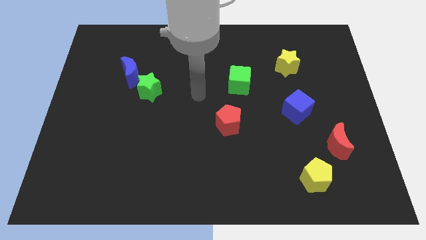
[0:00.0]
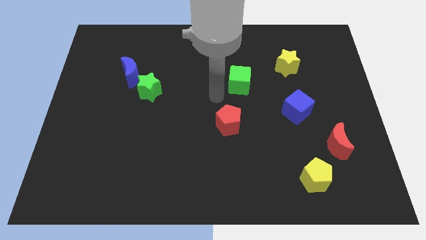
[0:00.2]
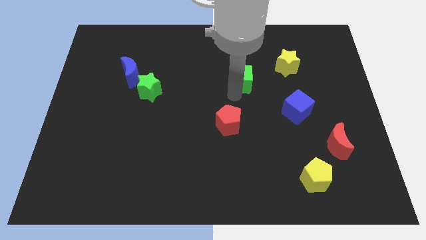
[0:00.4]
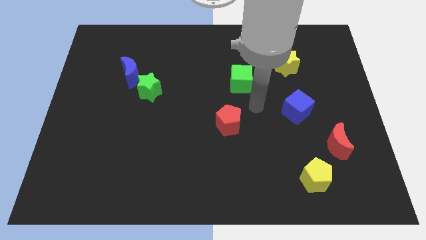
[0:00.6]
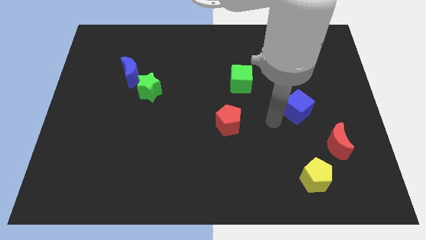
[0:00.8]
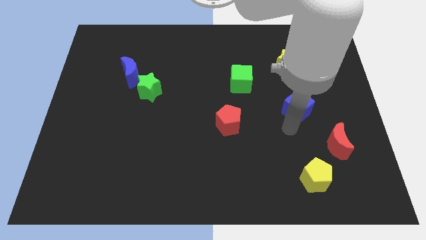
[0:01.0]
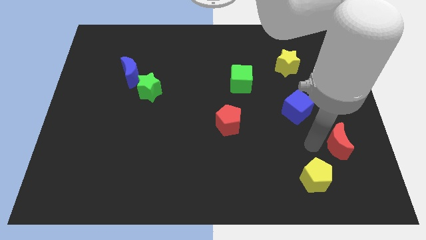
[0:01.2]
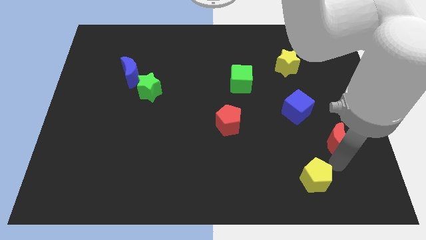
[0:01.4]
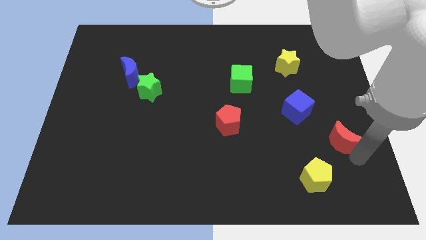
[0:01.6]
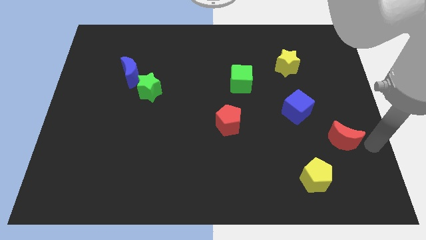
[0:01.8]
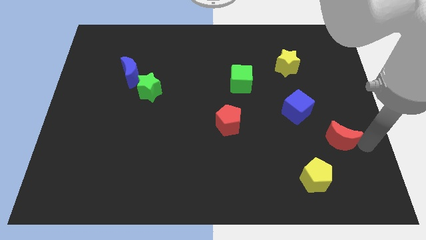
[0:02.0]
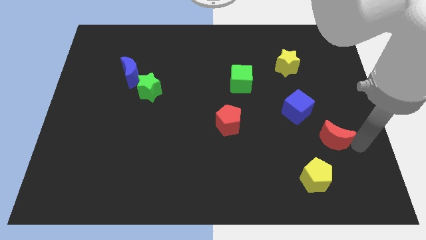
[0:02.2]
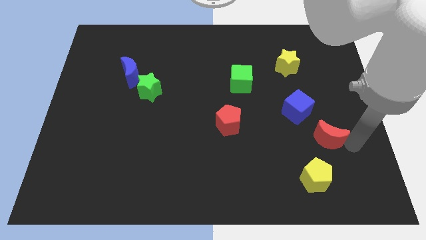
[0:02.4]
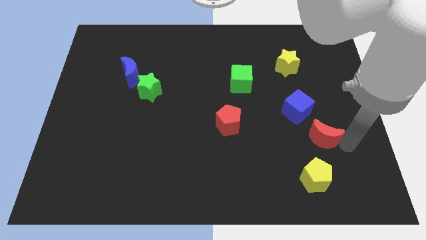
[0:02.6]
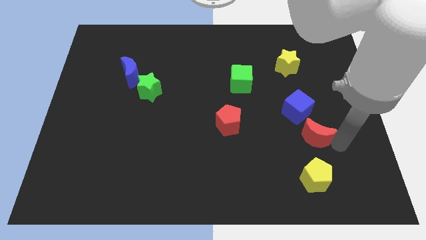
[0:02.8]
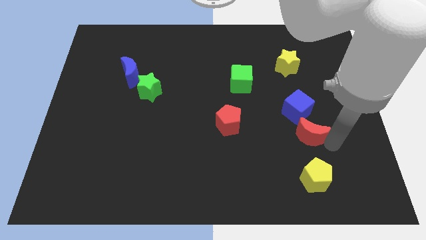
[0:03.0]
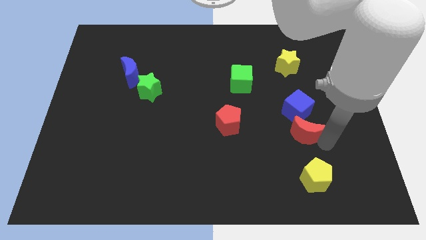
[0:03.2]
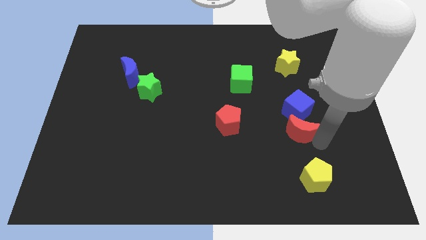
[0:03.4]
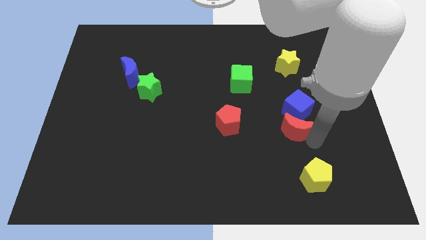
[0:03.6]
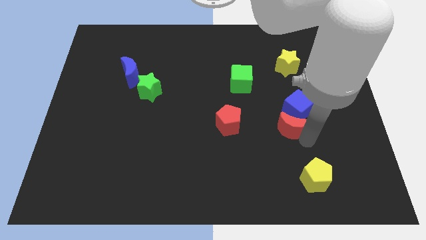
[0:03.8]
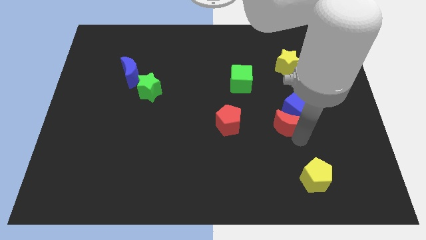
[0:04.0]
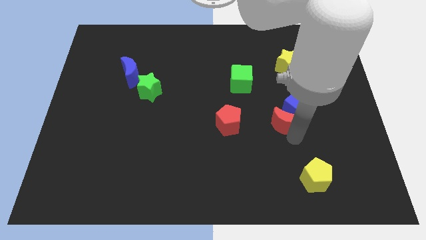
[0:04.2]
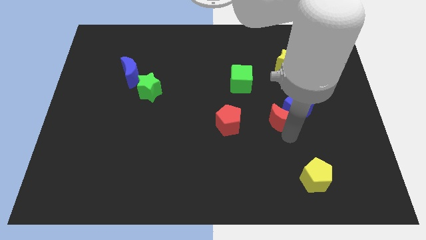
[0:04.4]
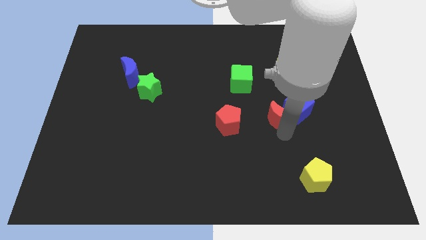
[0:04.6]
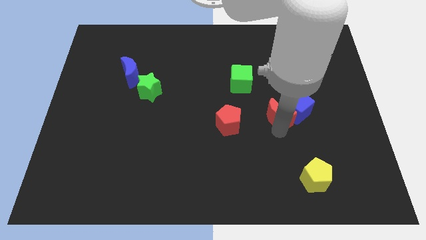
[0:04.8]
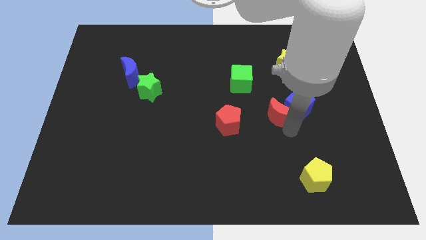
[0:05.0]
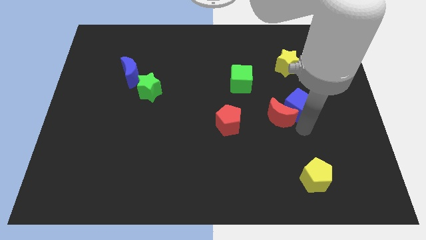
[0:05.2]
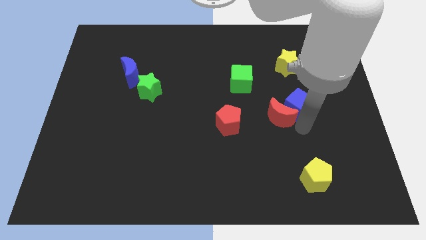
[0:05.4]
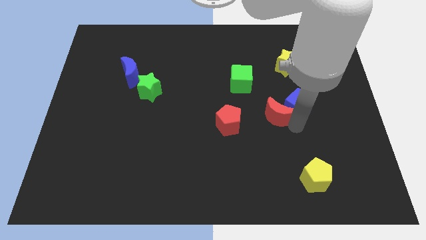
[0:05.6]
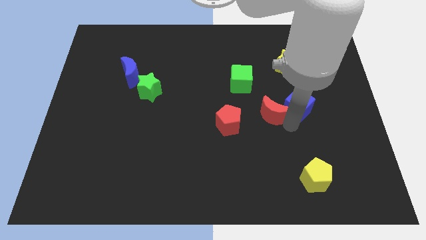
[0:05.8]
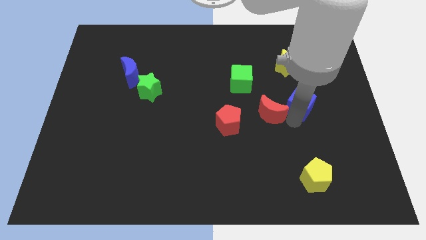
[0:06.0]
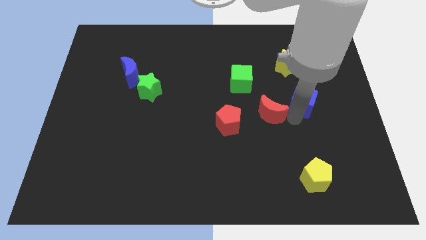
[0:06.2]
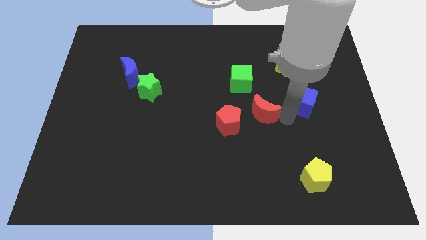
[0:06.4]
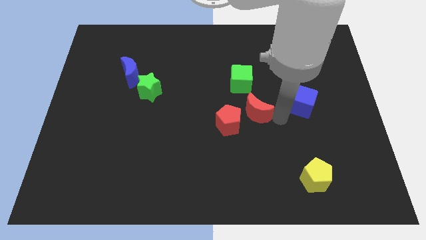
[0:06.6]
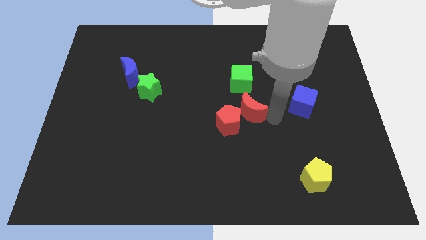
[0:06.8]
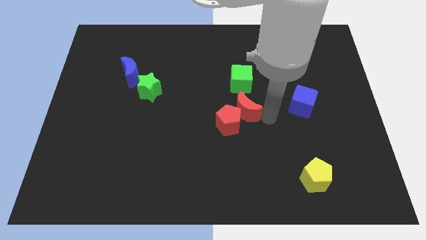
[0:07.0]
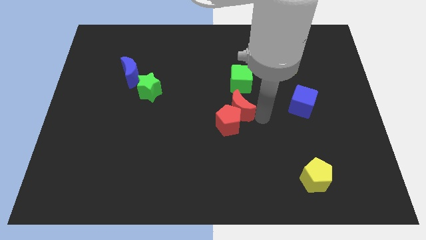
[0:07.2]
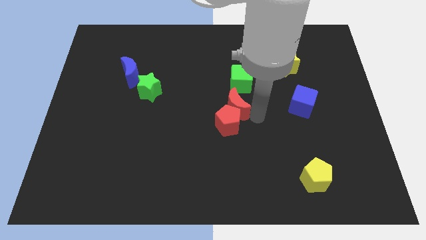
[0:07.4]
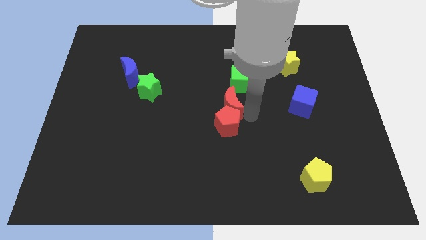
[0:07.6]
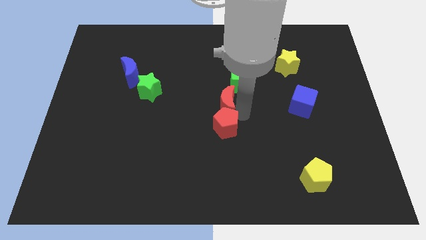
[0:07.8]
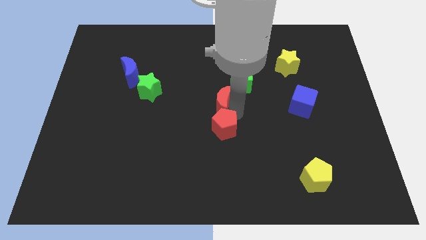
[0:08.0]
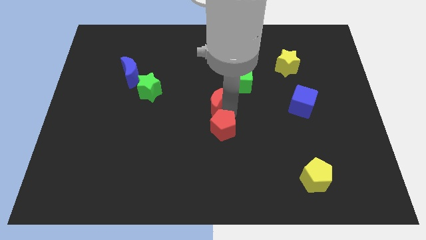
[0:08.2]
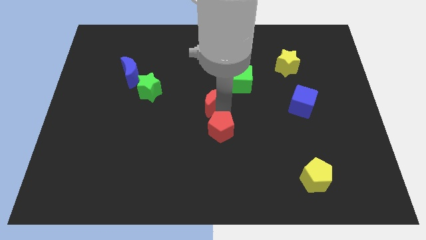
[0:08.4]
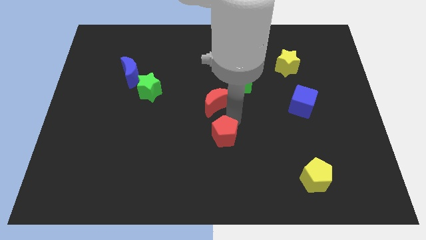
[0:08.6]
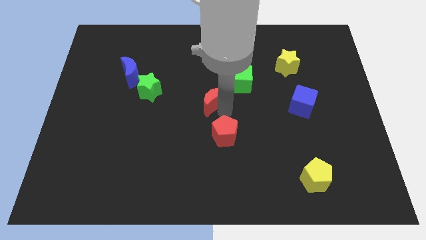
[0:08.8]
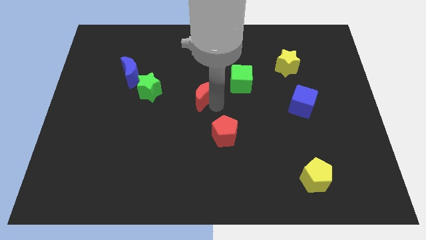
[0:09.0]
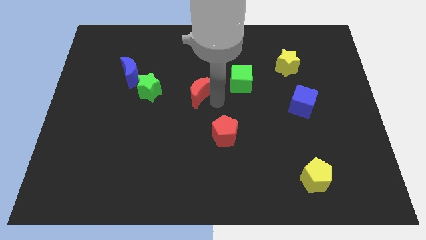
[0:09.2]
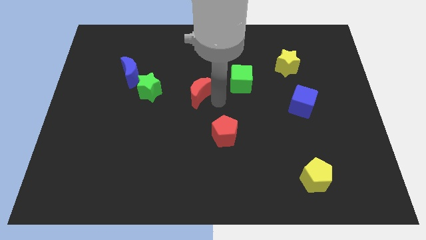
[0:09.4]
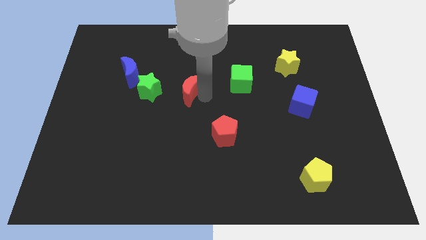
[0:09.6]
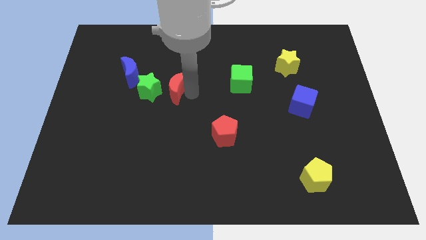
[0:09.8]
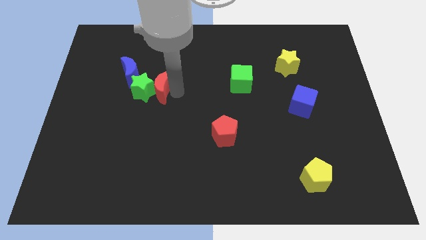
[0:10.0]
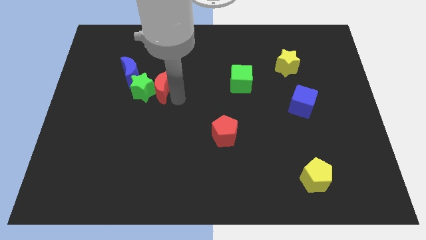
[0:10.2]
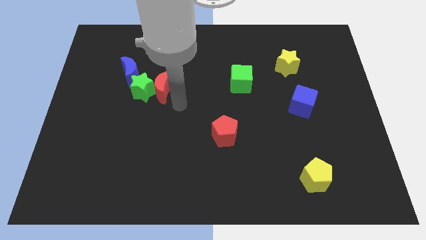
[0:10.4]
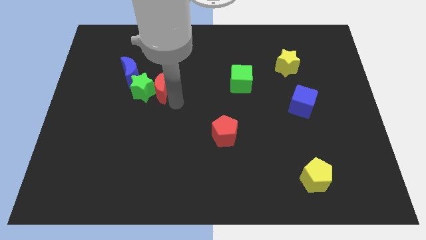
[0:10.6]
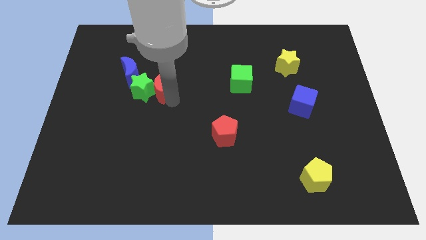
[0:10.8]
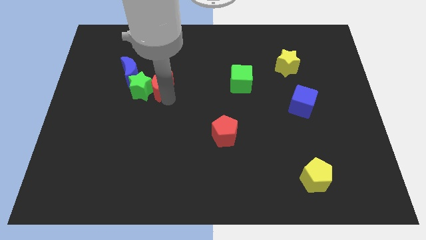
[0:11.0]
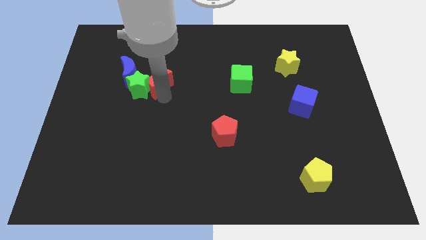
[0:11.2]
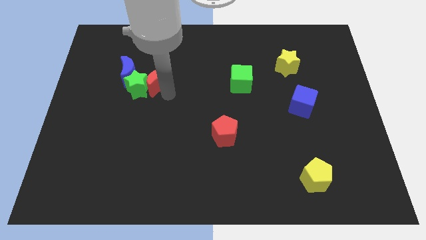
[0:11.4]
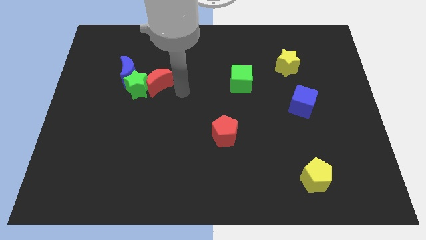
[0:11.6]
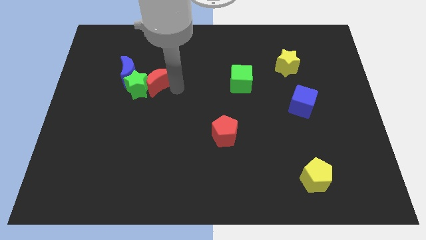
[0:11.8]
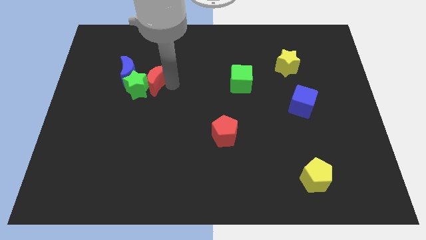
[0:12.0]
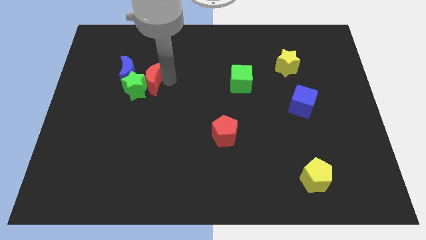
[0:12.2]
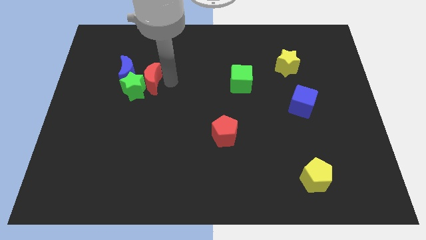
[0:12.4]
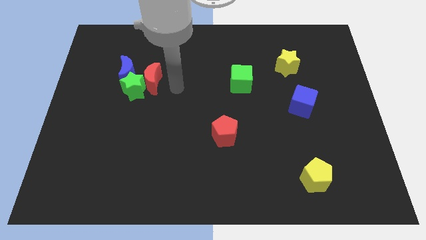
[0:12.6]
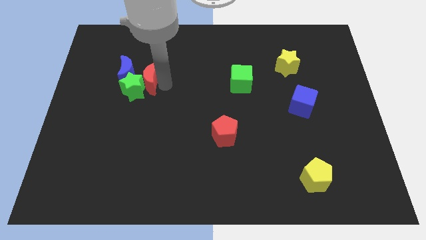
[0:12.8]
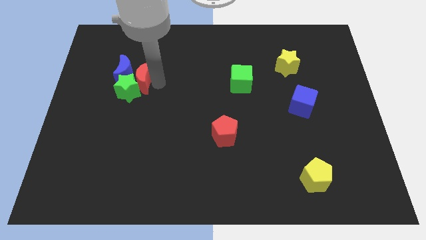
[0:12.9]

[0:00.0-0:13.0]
put the red moon to the blue moon

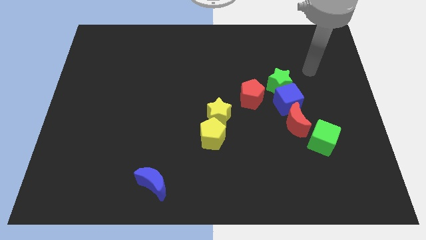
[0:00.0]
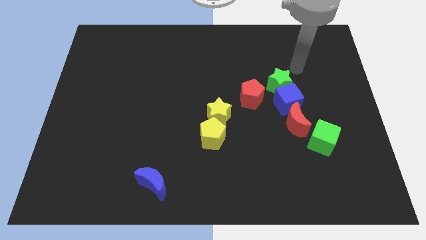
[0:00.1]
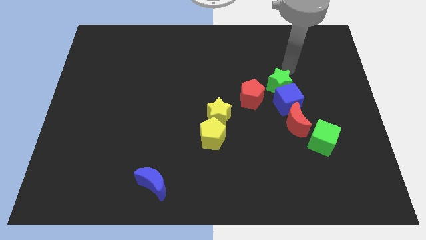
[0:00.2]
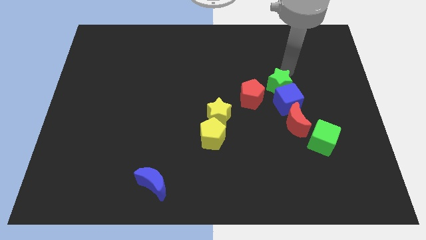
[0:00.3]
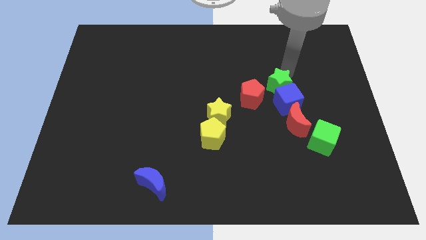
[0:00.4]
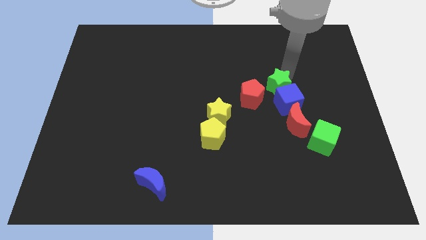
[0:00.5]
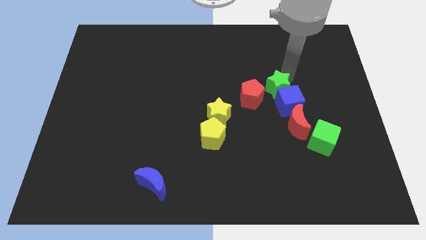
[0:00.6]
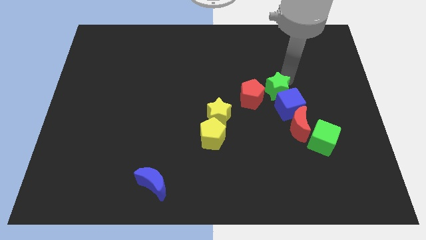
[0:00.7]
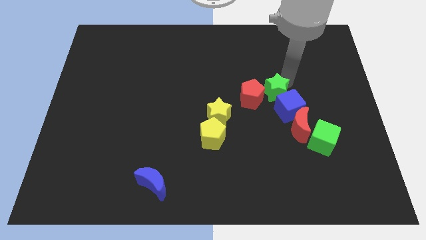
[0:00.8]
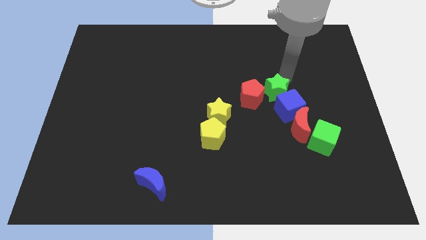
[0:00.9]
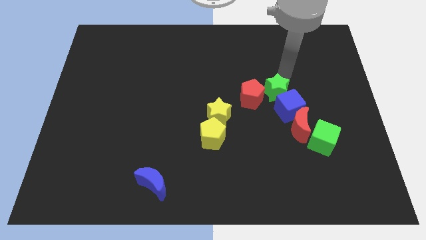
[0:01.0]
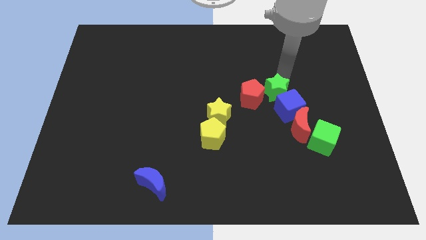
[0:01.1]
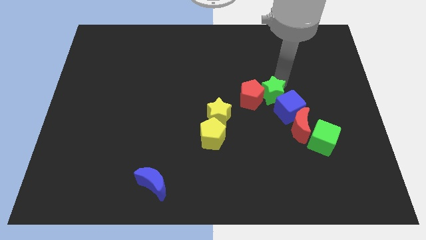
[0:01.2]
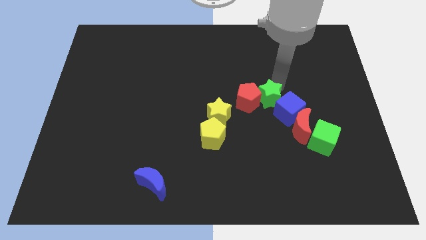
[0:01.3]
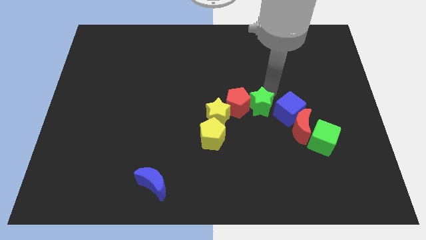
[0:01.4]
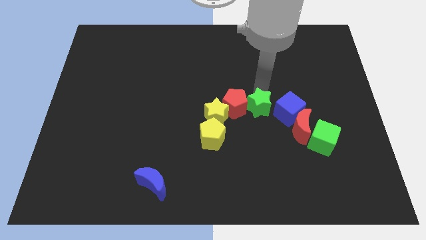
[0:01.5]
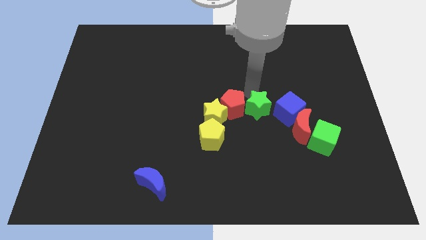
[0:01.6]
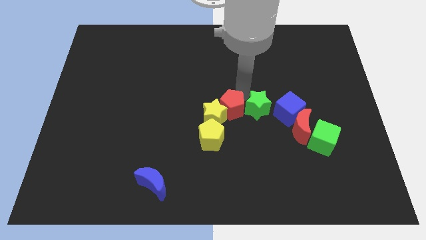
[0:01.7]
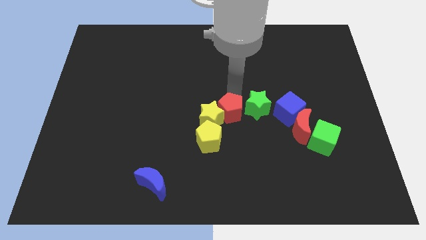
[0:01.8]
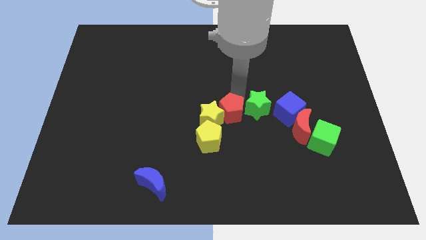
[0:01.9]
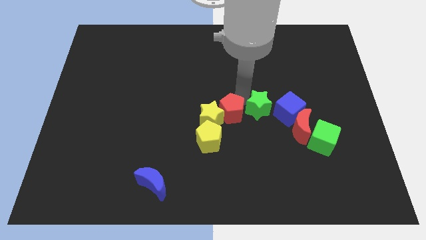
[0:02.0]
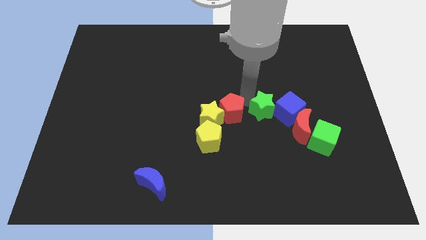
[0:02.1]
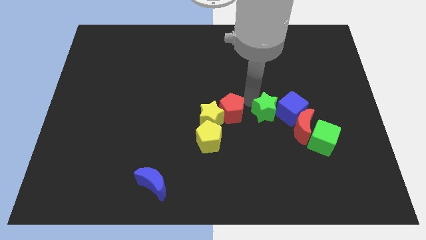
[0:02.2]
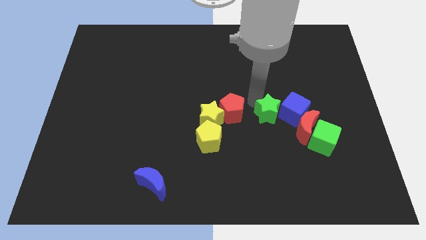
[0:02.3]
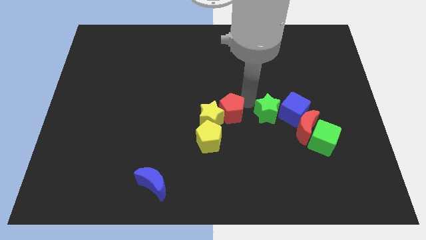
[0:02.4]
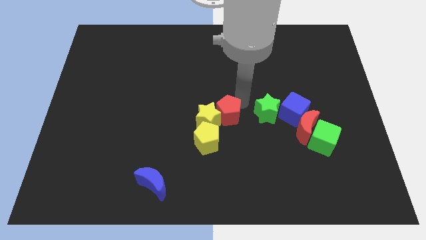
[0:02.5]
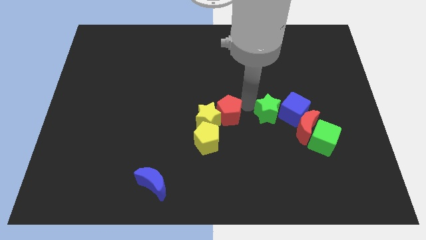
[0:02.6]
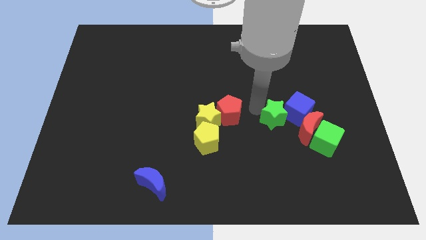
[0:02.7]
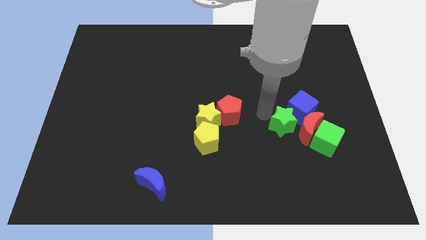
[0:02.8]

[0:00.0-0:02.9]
move the green star close to the red moon
